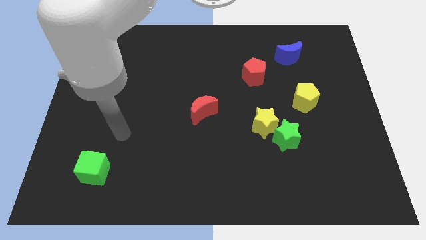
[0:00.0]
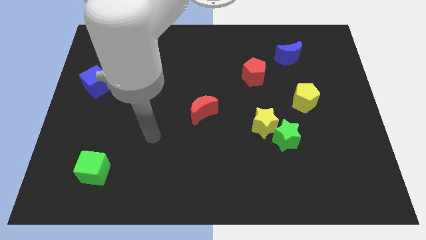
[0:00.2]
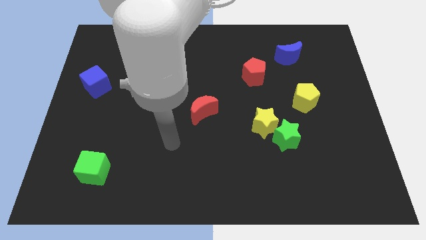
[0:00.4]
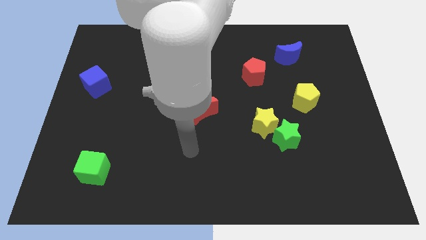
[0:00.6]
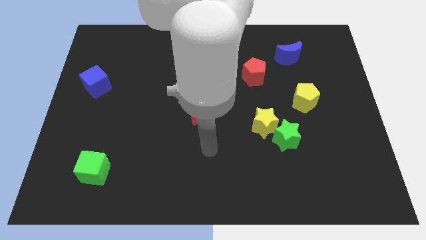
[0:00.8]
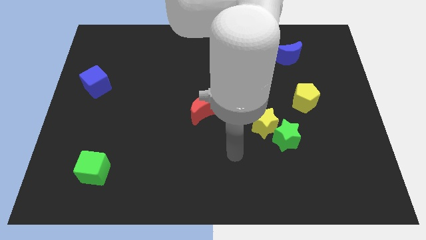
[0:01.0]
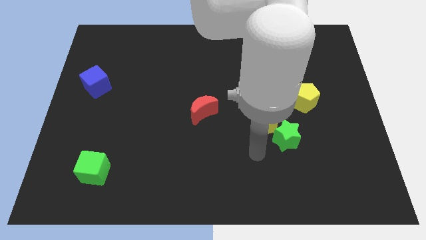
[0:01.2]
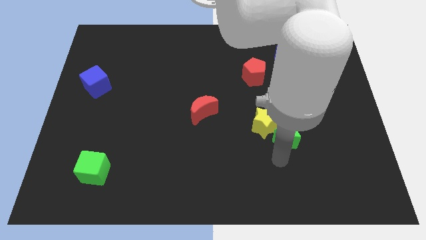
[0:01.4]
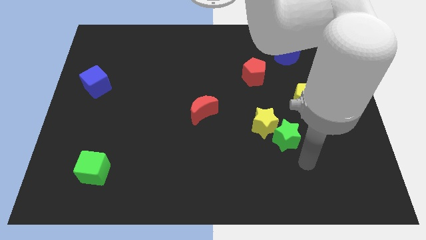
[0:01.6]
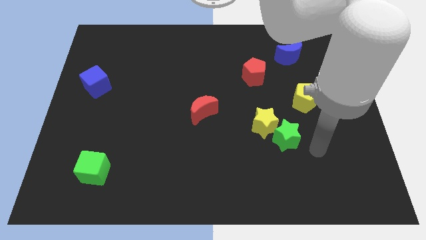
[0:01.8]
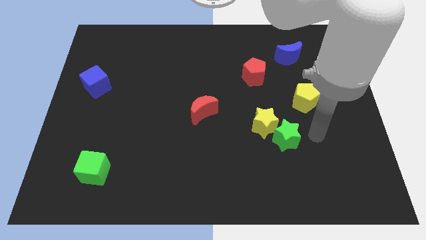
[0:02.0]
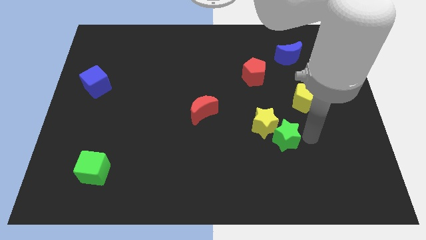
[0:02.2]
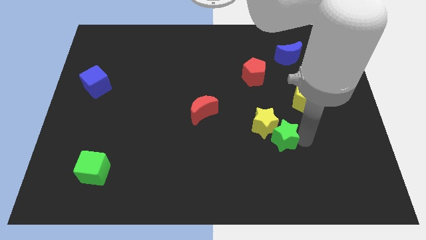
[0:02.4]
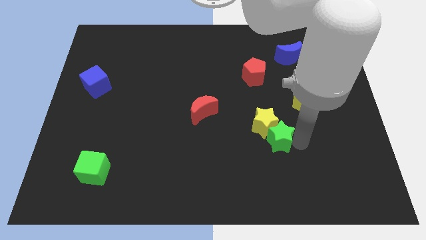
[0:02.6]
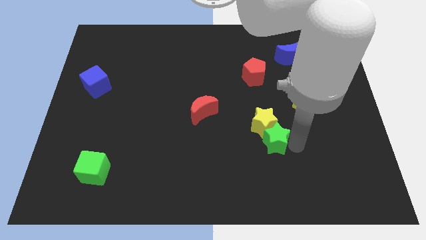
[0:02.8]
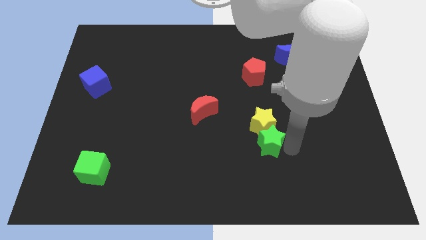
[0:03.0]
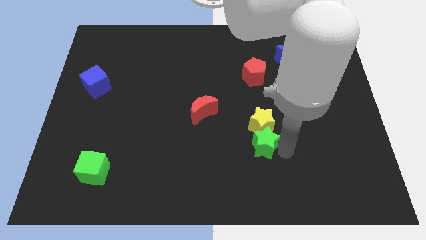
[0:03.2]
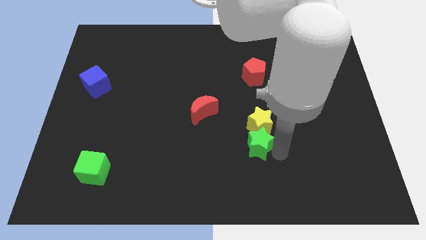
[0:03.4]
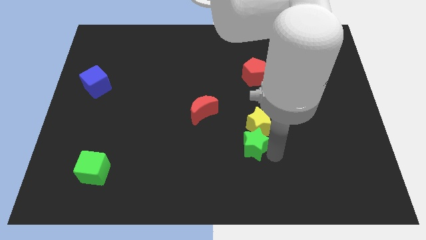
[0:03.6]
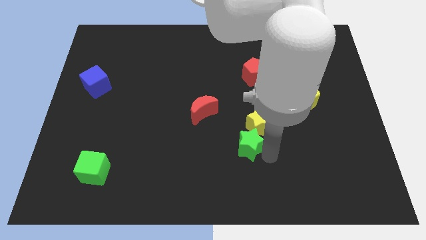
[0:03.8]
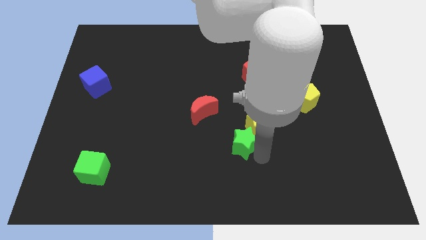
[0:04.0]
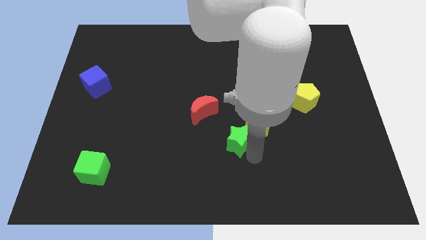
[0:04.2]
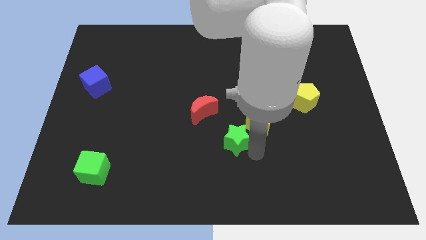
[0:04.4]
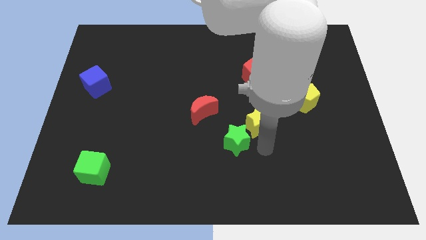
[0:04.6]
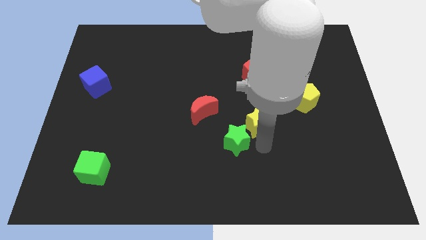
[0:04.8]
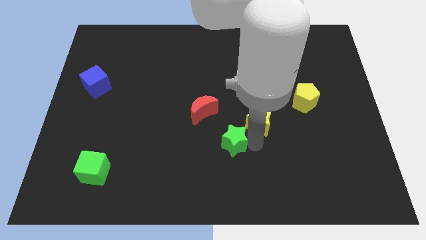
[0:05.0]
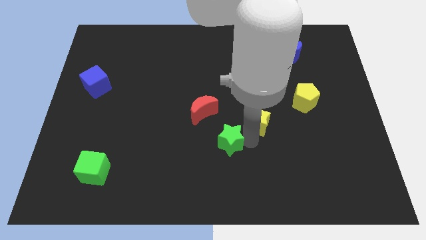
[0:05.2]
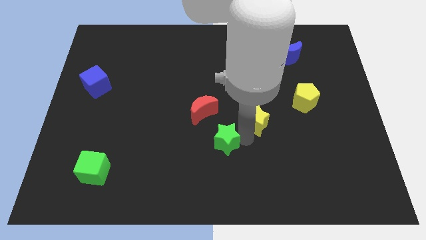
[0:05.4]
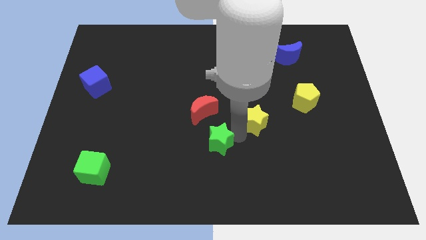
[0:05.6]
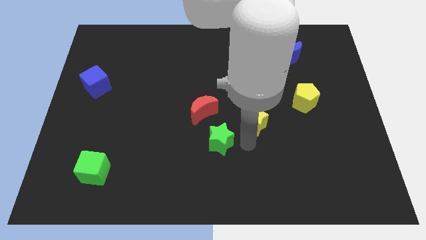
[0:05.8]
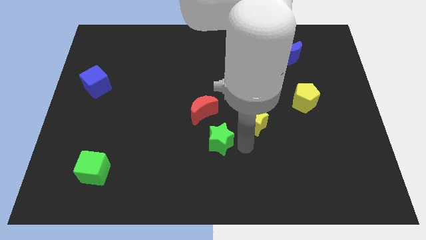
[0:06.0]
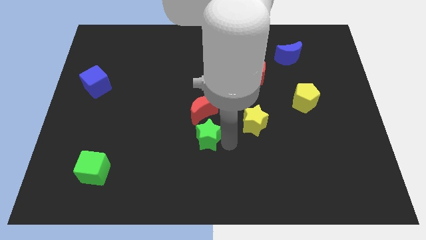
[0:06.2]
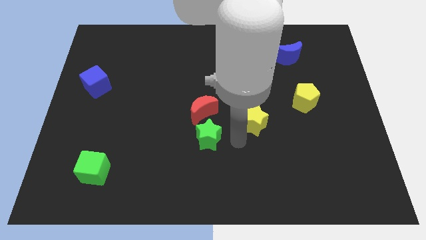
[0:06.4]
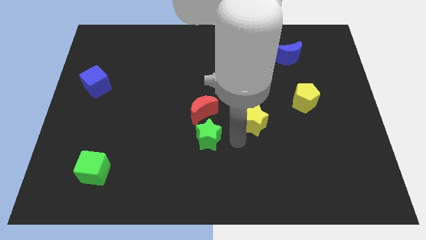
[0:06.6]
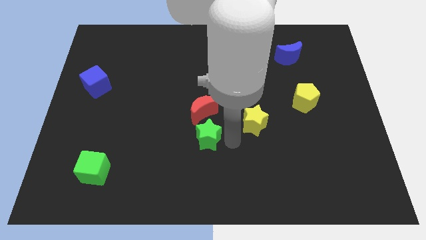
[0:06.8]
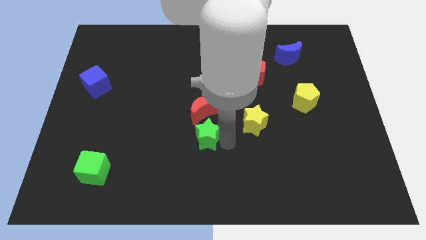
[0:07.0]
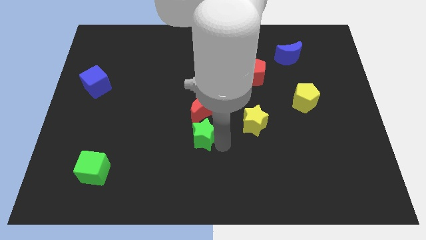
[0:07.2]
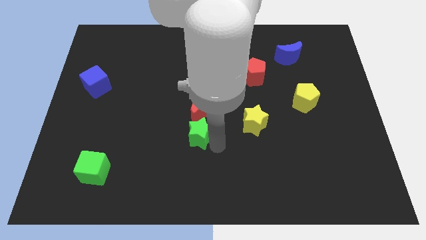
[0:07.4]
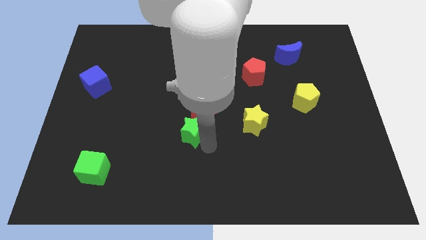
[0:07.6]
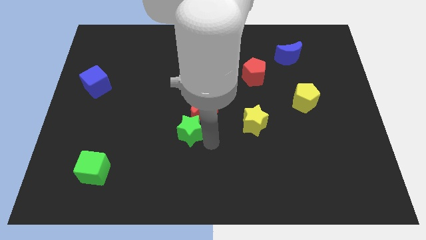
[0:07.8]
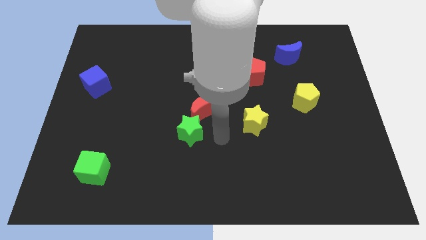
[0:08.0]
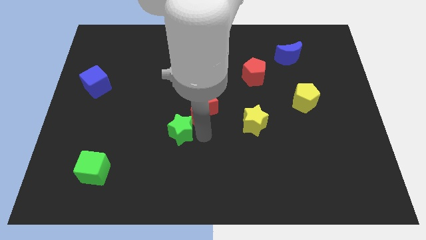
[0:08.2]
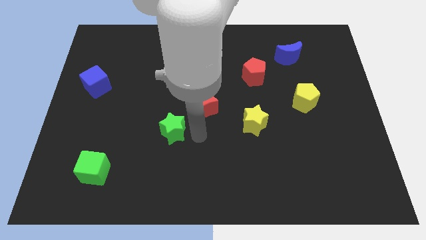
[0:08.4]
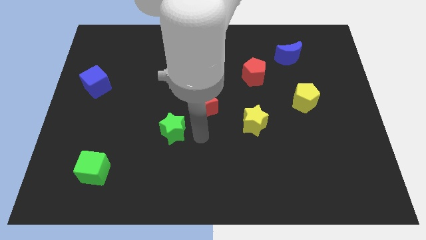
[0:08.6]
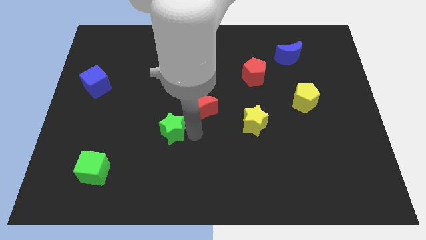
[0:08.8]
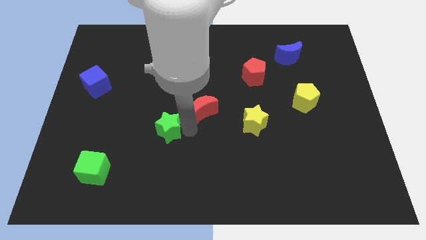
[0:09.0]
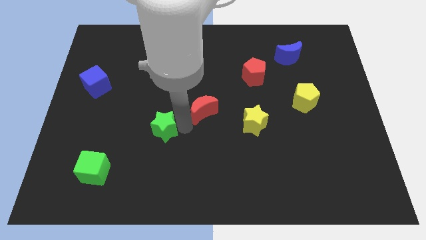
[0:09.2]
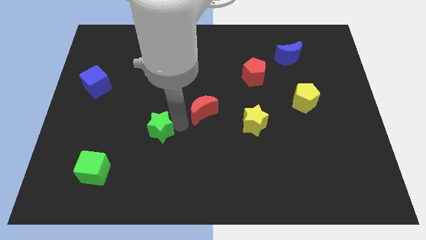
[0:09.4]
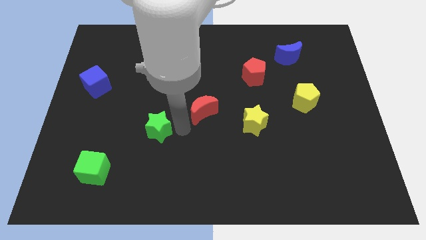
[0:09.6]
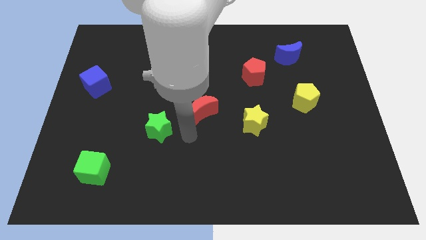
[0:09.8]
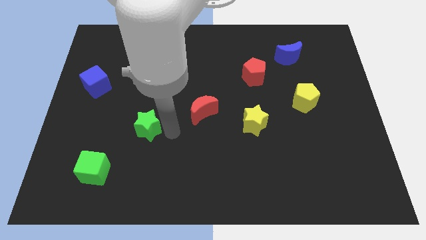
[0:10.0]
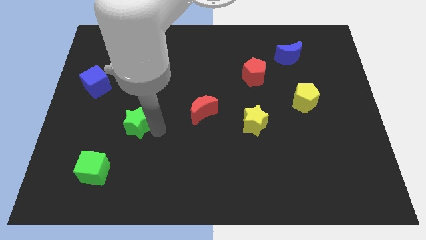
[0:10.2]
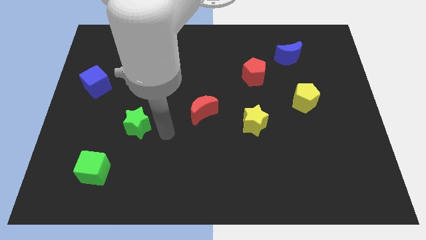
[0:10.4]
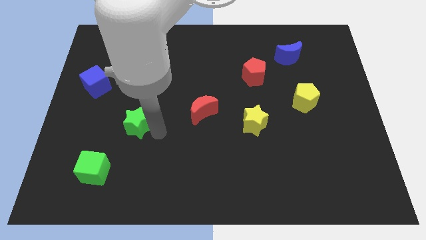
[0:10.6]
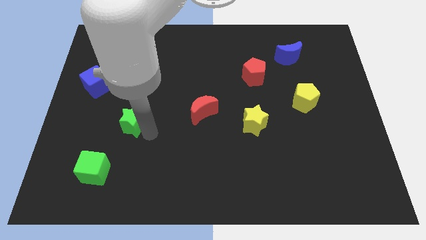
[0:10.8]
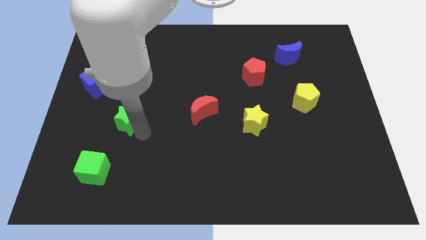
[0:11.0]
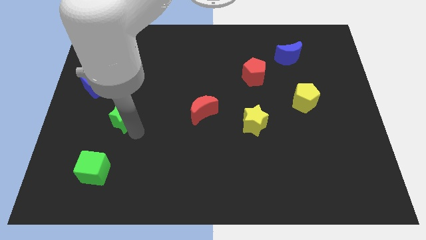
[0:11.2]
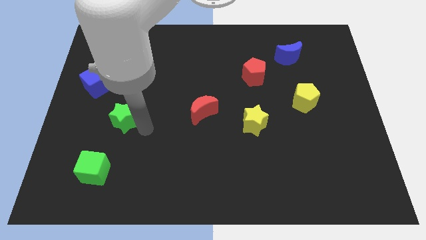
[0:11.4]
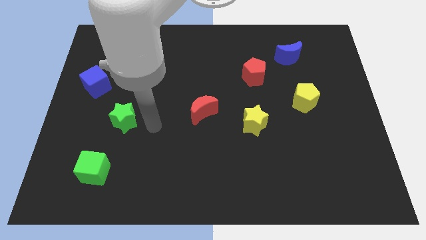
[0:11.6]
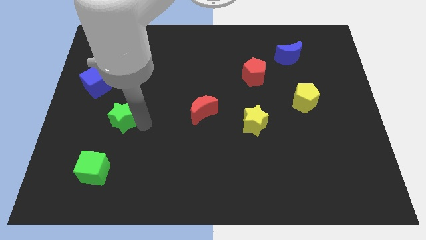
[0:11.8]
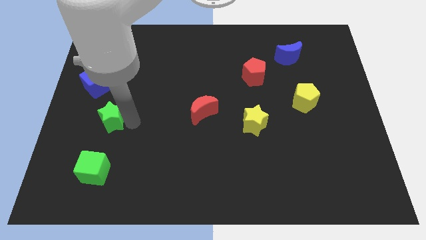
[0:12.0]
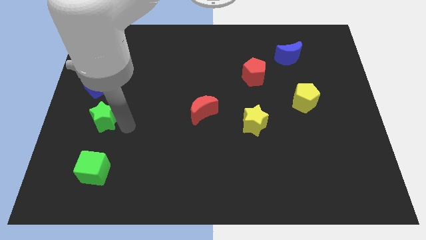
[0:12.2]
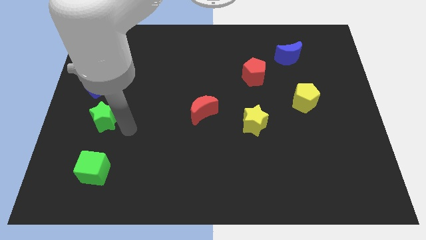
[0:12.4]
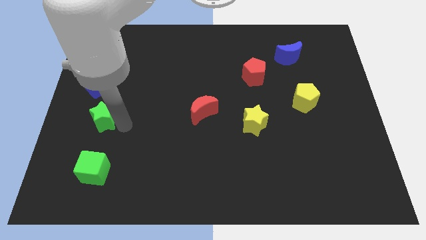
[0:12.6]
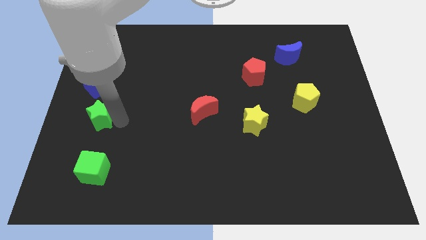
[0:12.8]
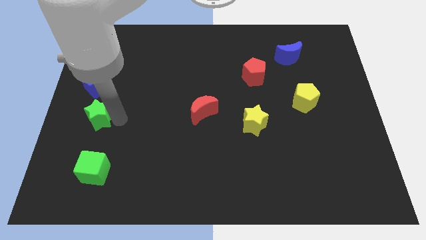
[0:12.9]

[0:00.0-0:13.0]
push the green star to the left side
